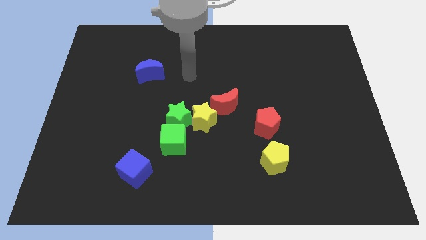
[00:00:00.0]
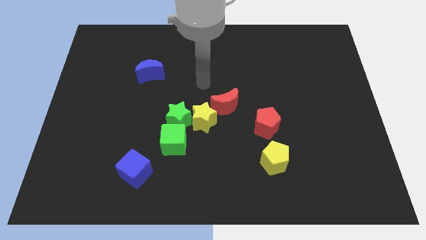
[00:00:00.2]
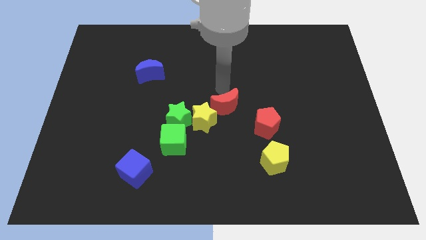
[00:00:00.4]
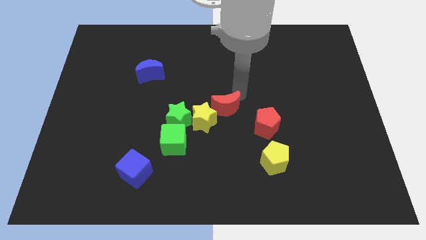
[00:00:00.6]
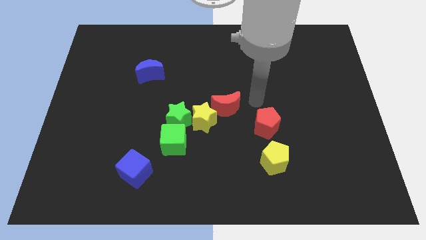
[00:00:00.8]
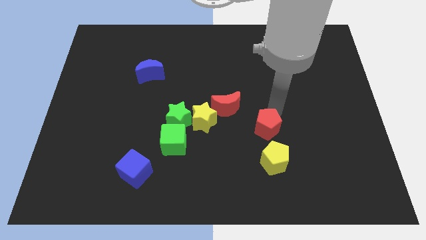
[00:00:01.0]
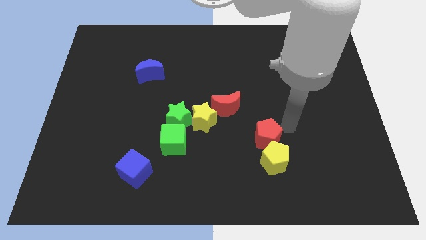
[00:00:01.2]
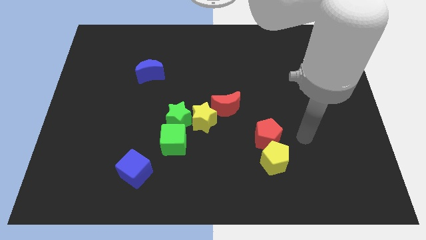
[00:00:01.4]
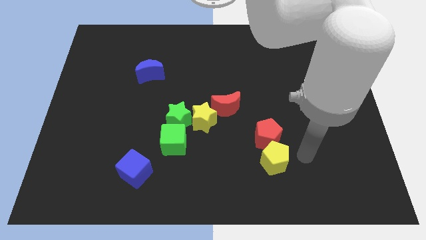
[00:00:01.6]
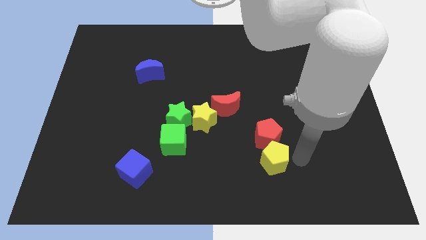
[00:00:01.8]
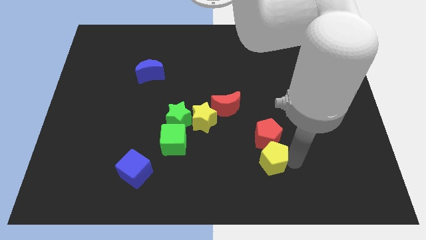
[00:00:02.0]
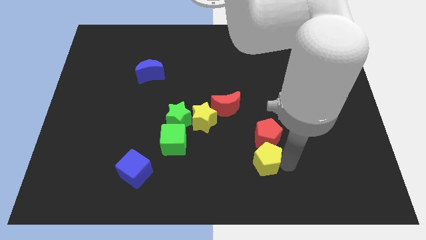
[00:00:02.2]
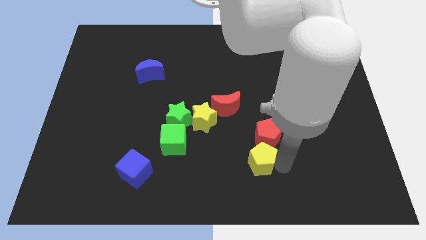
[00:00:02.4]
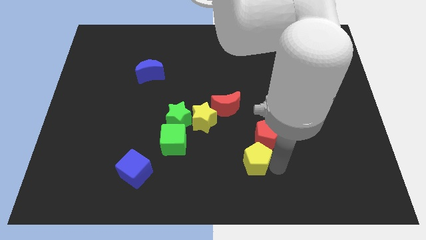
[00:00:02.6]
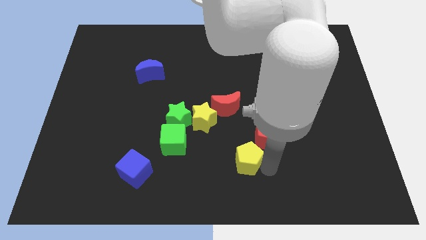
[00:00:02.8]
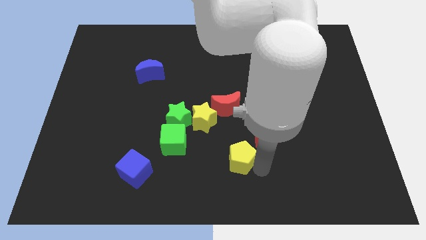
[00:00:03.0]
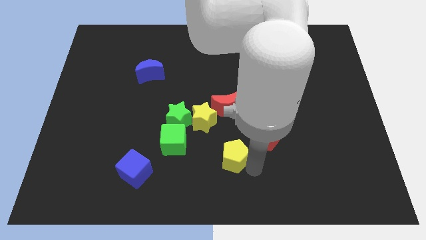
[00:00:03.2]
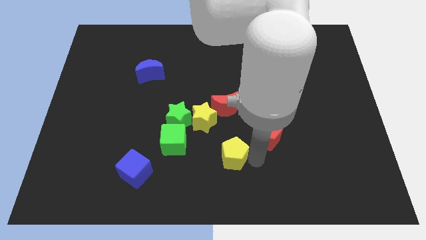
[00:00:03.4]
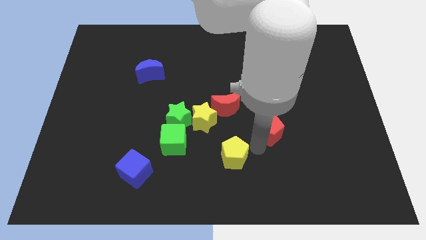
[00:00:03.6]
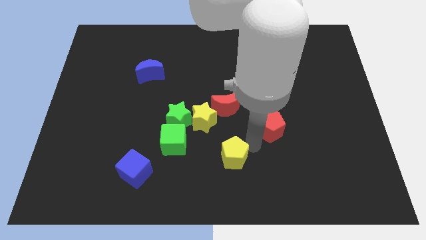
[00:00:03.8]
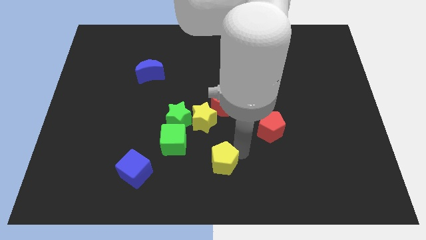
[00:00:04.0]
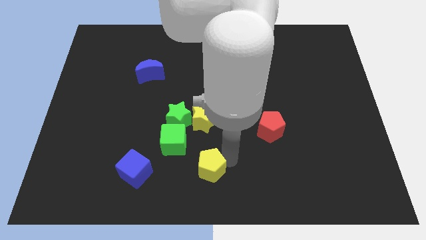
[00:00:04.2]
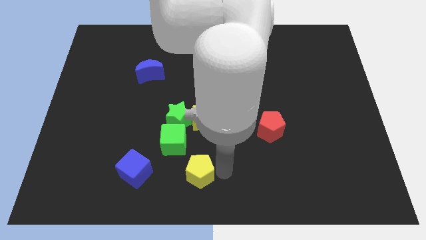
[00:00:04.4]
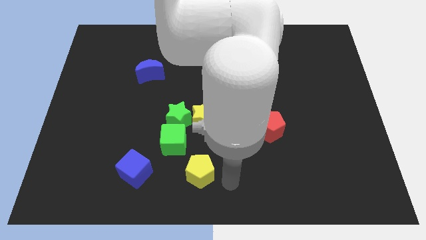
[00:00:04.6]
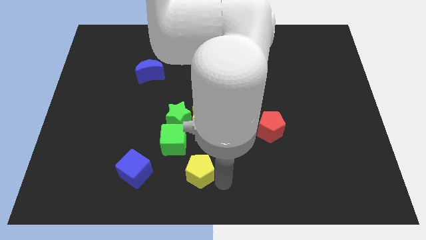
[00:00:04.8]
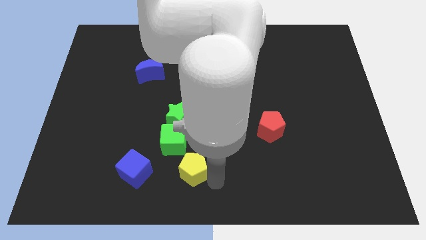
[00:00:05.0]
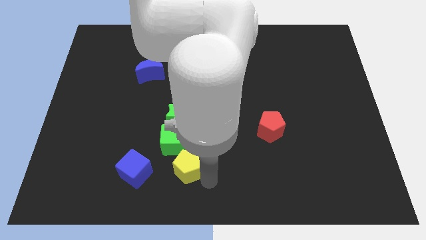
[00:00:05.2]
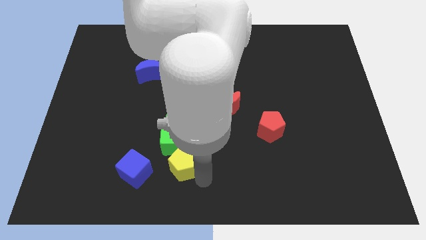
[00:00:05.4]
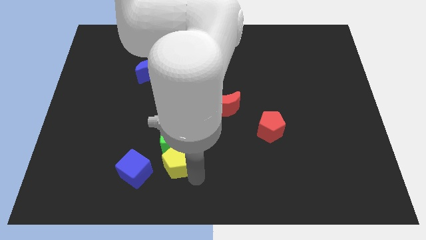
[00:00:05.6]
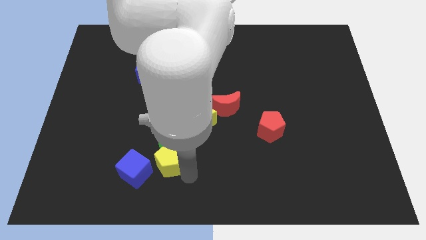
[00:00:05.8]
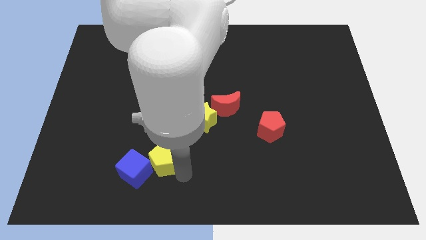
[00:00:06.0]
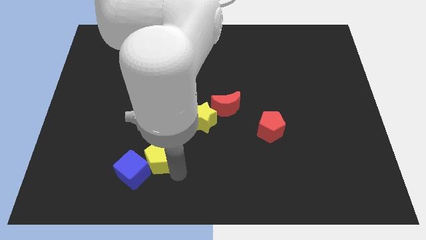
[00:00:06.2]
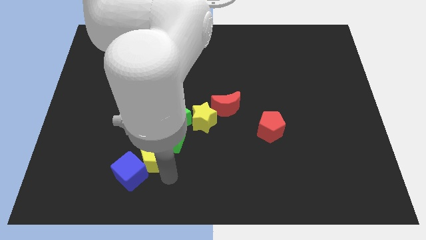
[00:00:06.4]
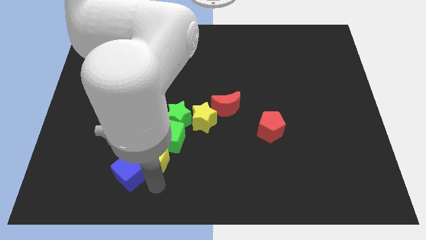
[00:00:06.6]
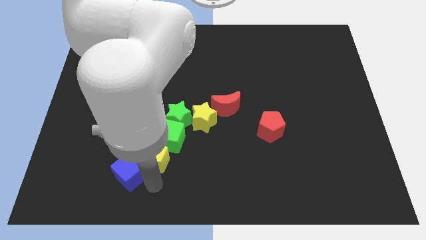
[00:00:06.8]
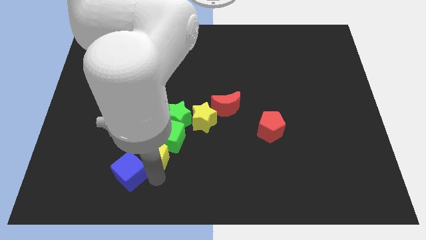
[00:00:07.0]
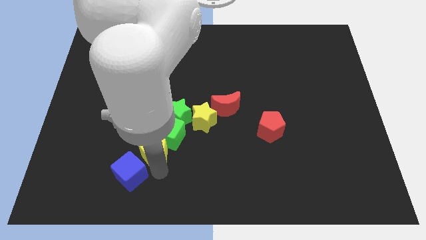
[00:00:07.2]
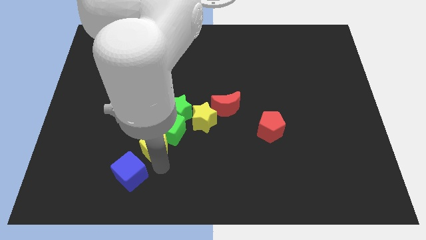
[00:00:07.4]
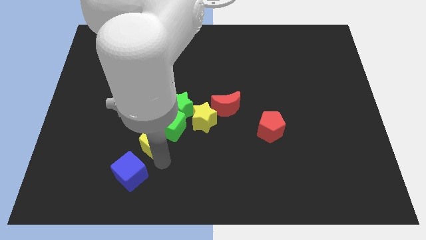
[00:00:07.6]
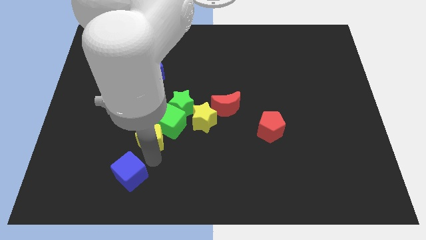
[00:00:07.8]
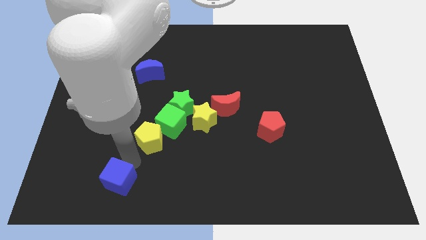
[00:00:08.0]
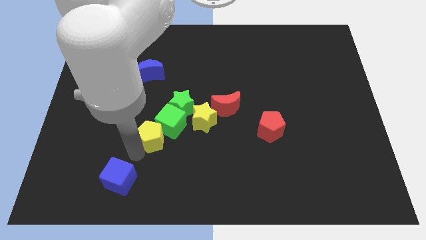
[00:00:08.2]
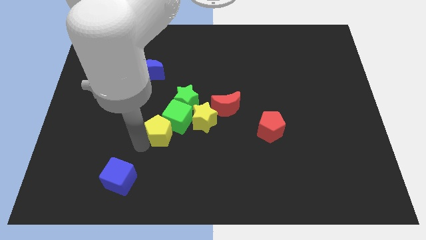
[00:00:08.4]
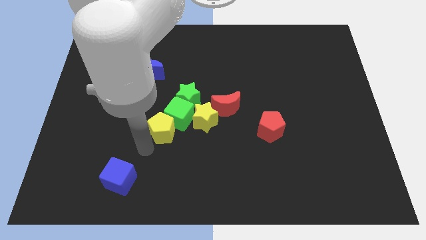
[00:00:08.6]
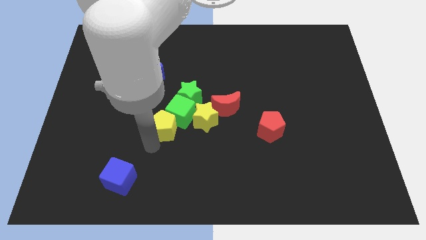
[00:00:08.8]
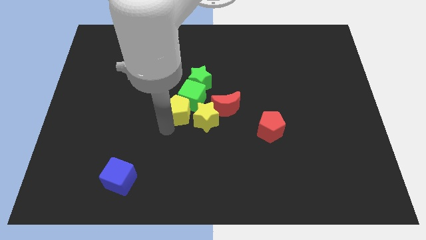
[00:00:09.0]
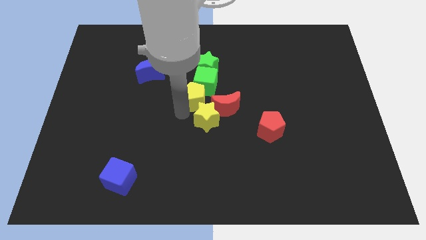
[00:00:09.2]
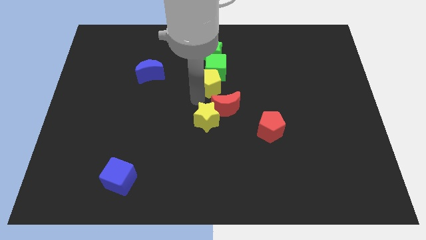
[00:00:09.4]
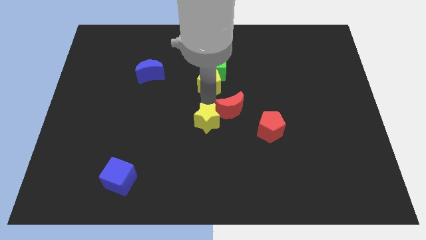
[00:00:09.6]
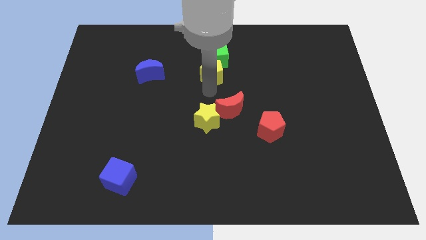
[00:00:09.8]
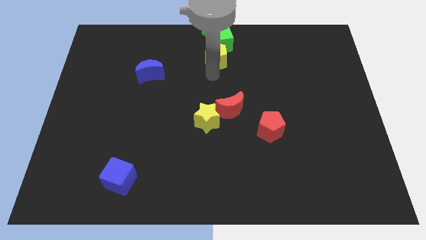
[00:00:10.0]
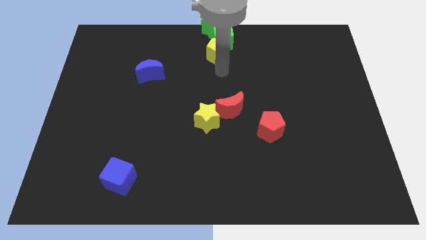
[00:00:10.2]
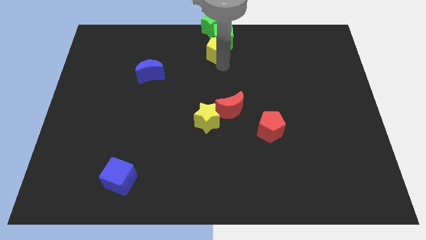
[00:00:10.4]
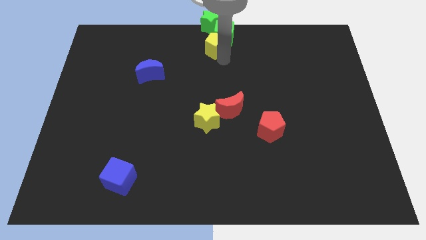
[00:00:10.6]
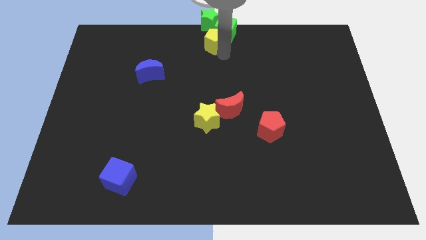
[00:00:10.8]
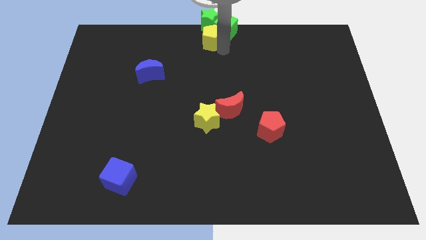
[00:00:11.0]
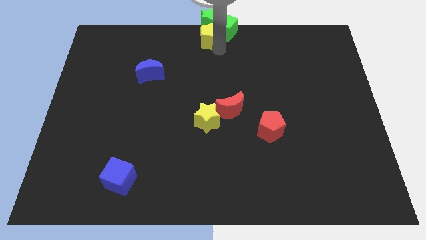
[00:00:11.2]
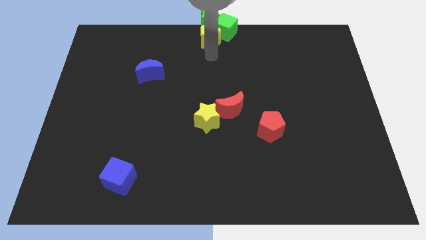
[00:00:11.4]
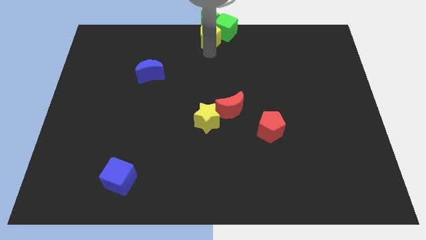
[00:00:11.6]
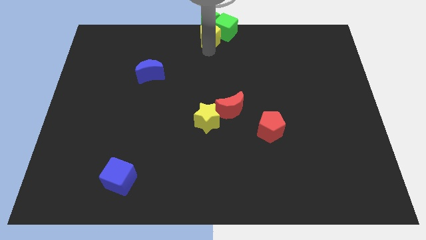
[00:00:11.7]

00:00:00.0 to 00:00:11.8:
push the yellow pentagon to the green star
